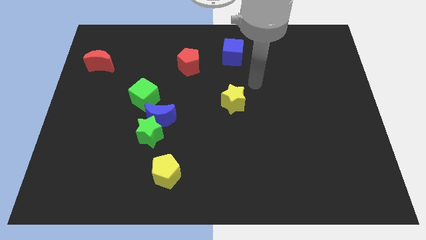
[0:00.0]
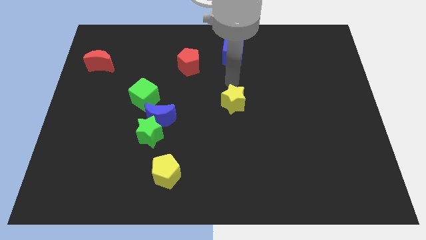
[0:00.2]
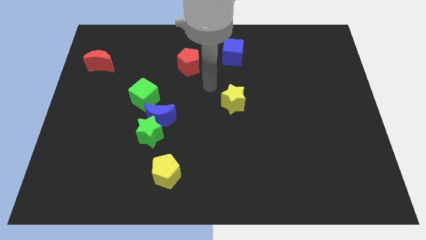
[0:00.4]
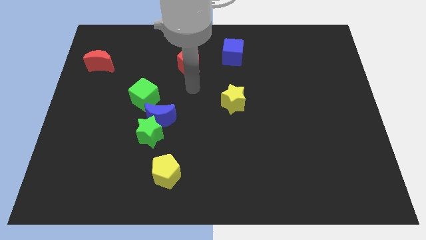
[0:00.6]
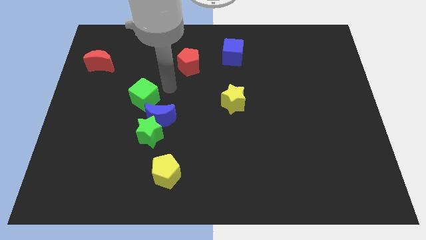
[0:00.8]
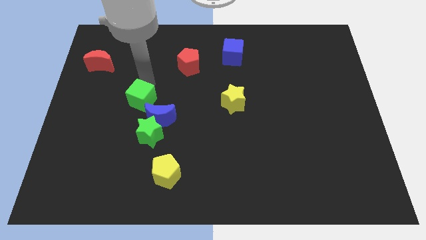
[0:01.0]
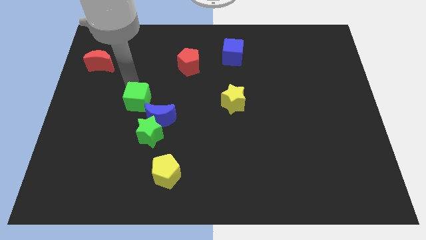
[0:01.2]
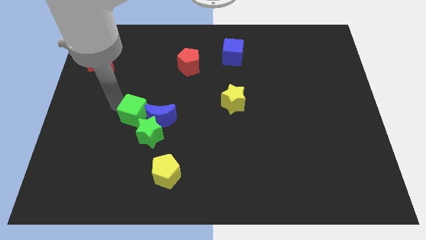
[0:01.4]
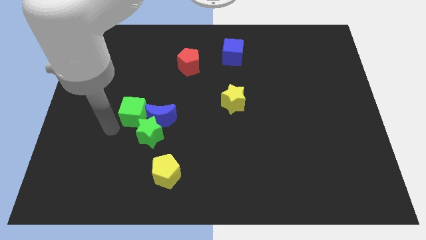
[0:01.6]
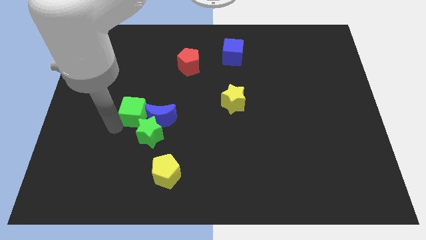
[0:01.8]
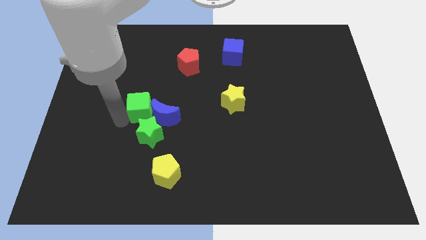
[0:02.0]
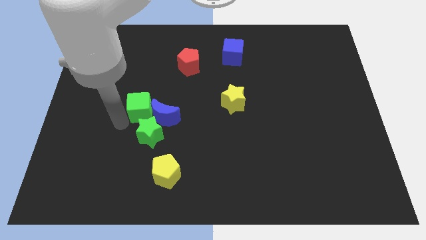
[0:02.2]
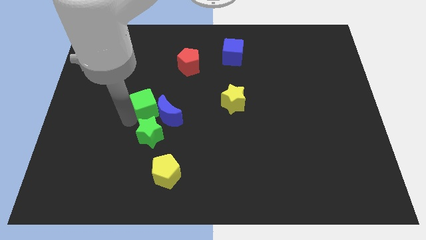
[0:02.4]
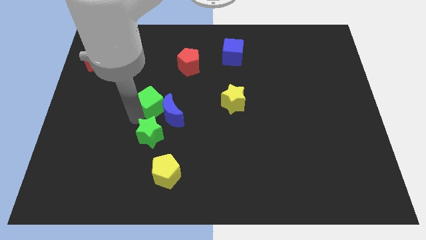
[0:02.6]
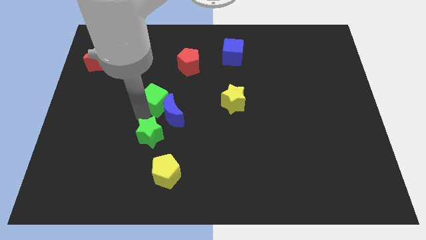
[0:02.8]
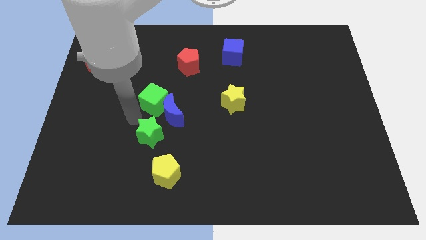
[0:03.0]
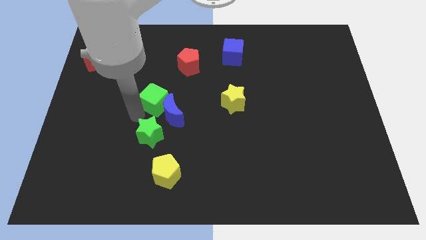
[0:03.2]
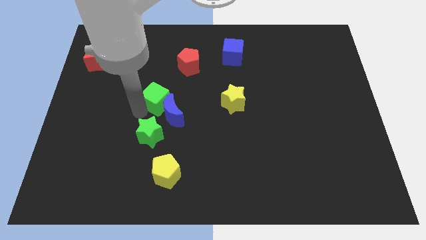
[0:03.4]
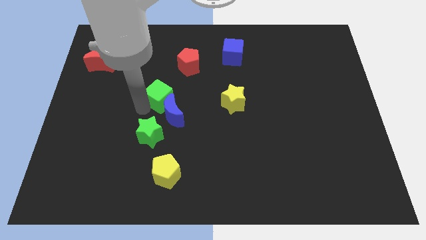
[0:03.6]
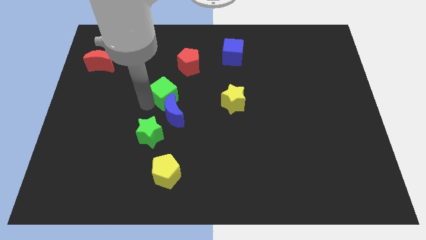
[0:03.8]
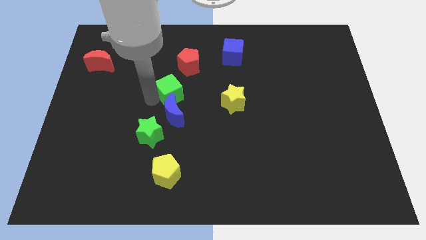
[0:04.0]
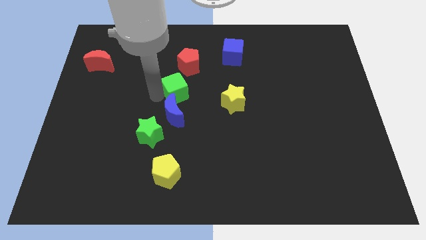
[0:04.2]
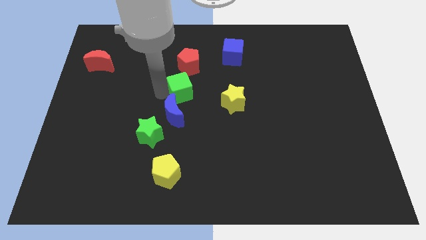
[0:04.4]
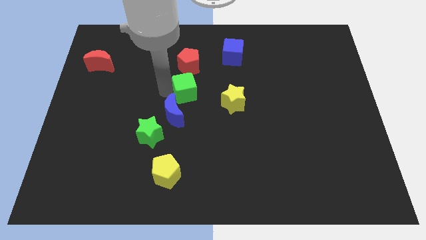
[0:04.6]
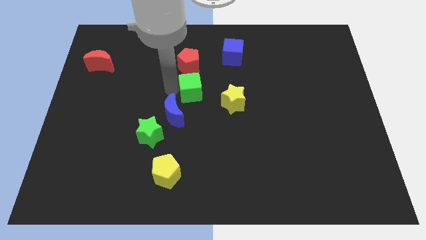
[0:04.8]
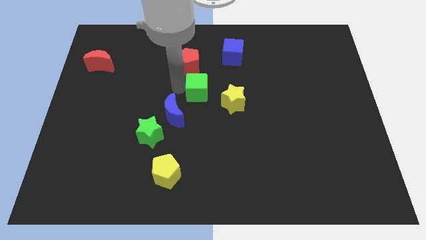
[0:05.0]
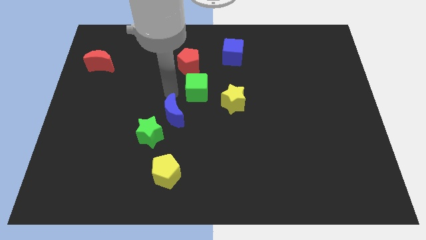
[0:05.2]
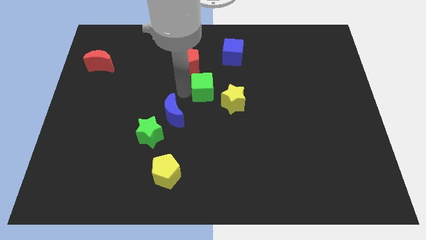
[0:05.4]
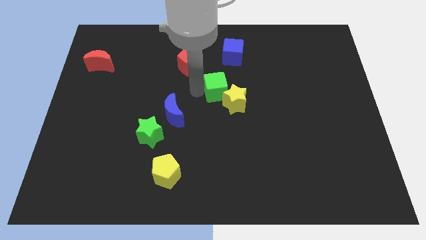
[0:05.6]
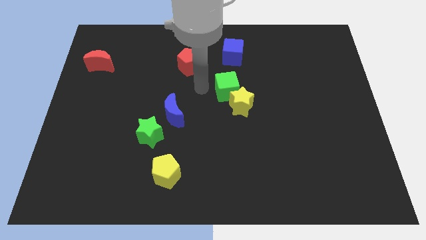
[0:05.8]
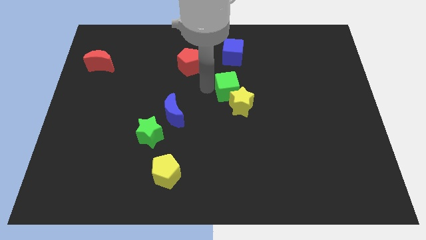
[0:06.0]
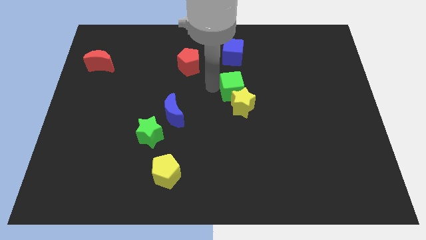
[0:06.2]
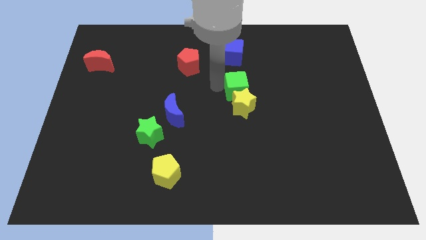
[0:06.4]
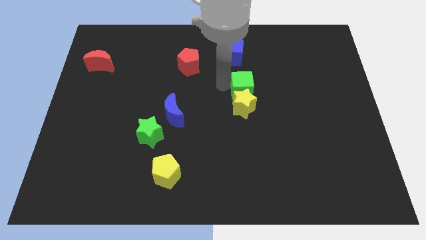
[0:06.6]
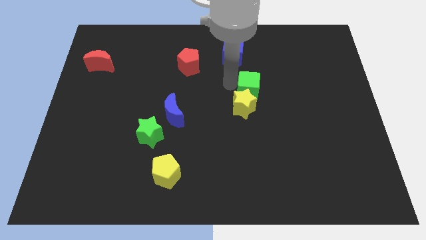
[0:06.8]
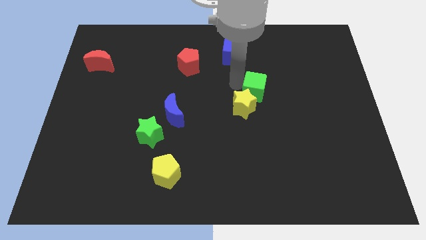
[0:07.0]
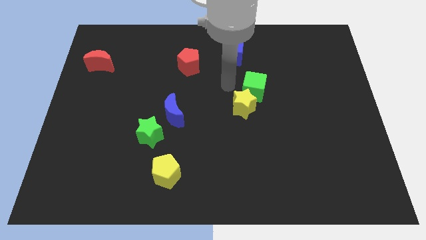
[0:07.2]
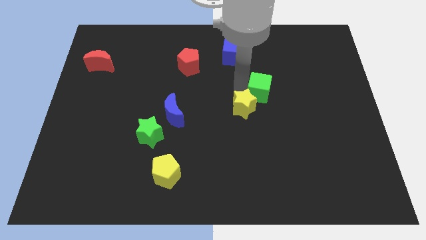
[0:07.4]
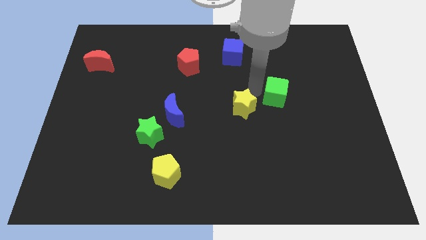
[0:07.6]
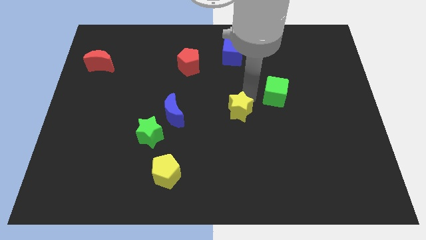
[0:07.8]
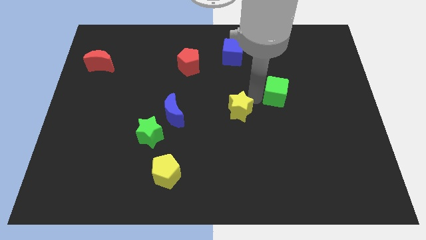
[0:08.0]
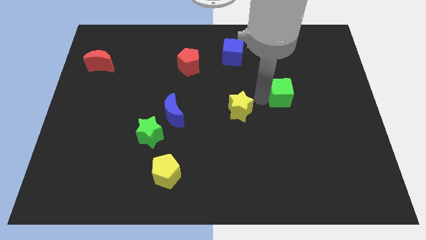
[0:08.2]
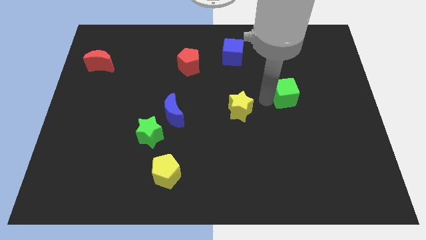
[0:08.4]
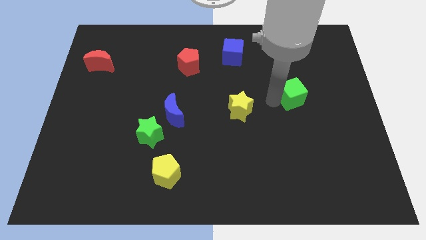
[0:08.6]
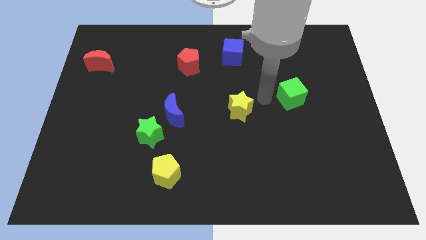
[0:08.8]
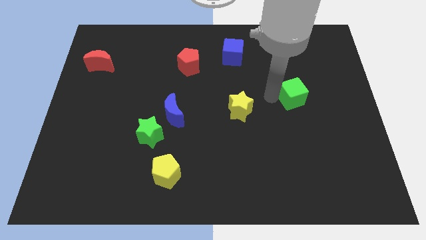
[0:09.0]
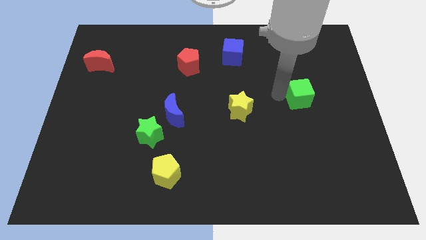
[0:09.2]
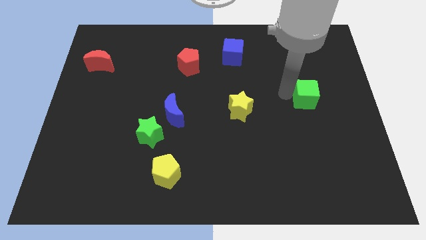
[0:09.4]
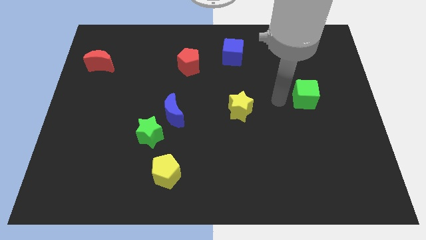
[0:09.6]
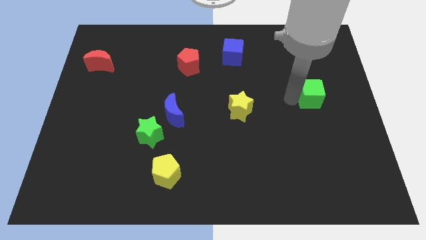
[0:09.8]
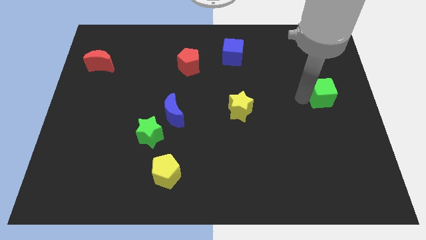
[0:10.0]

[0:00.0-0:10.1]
move the green cube to the center right
